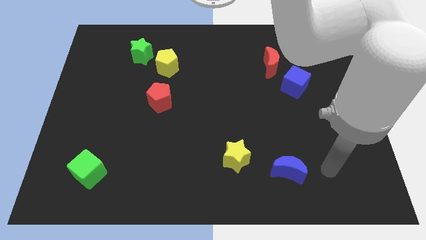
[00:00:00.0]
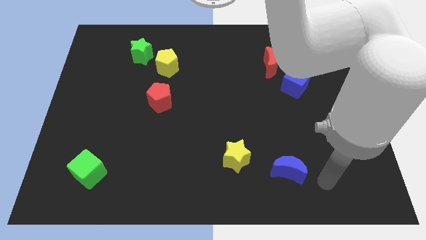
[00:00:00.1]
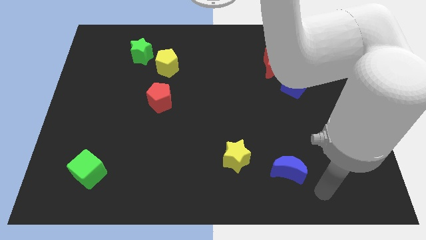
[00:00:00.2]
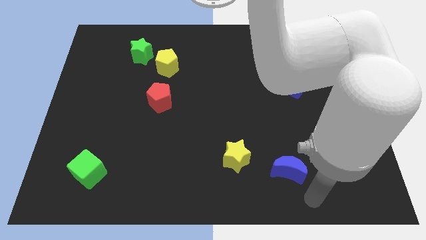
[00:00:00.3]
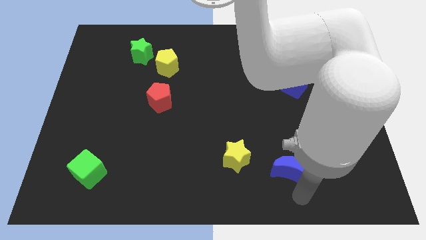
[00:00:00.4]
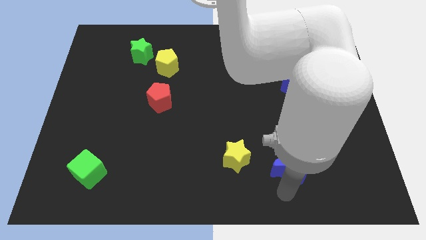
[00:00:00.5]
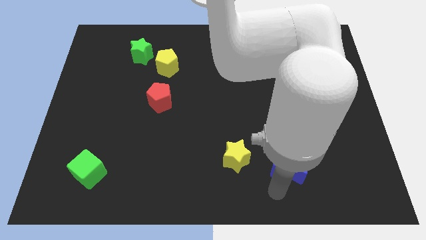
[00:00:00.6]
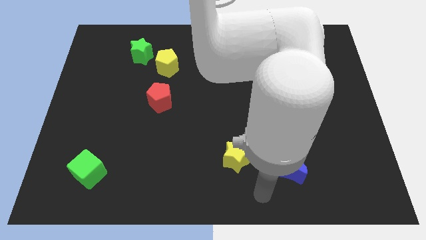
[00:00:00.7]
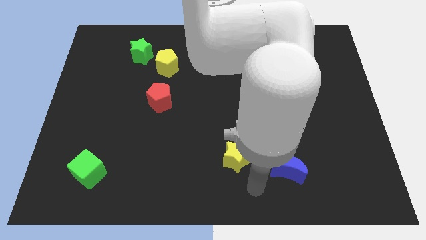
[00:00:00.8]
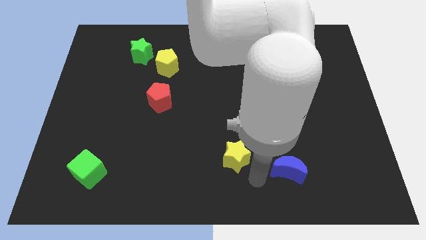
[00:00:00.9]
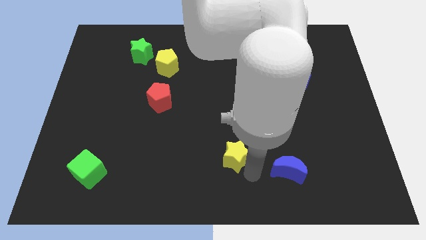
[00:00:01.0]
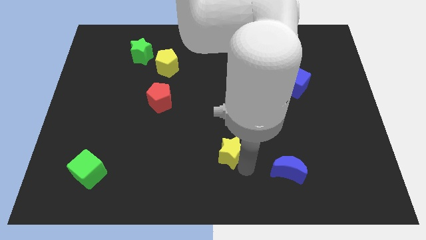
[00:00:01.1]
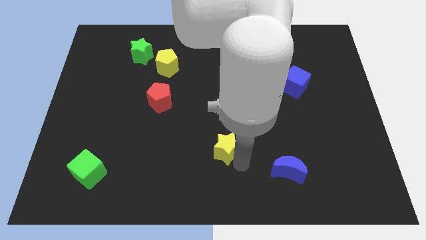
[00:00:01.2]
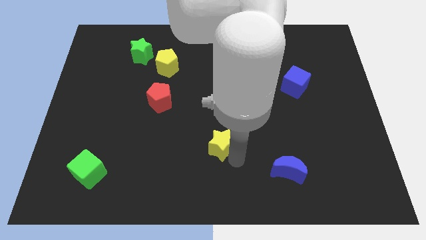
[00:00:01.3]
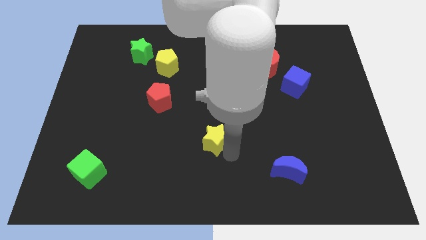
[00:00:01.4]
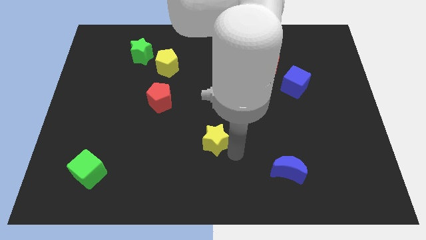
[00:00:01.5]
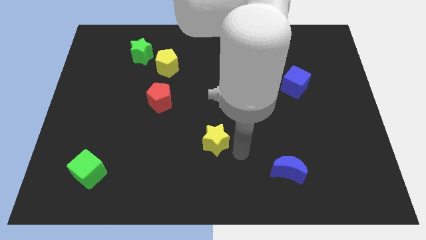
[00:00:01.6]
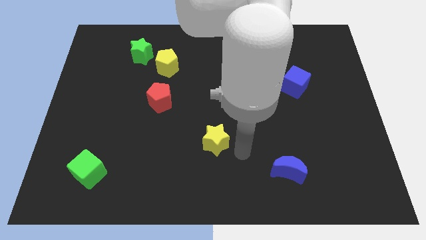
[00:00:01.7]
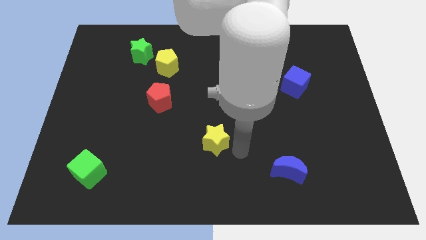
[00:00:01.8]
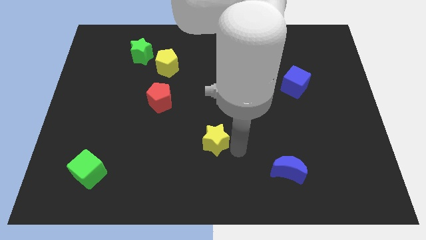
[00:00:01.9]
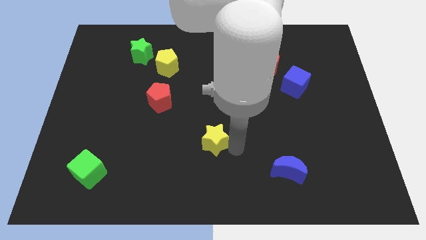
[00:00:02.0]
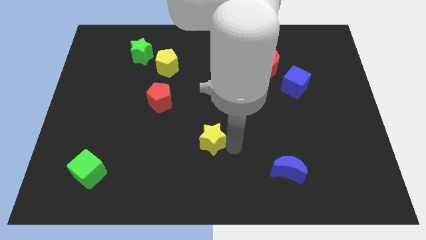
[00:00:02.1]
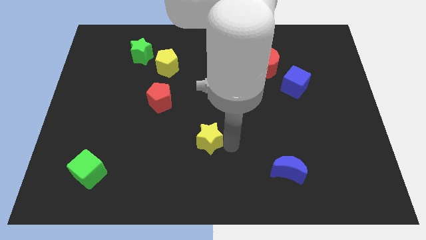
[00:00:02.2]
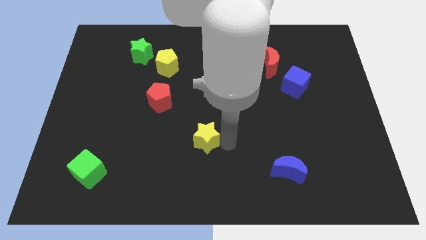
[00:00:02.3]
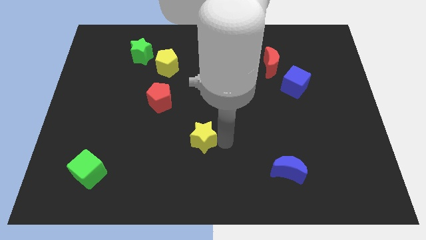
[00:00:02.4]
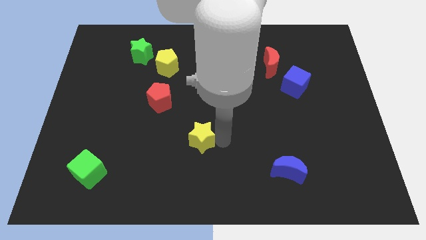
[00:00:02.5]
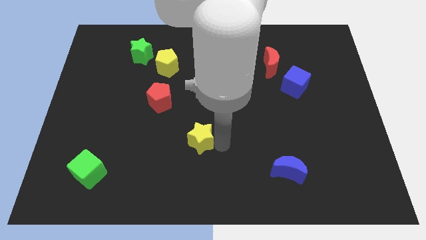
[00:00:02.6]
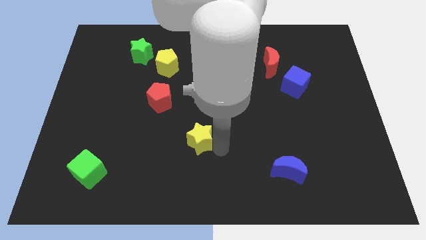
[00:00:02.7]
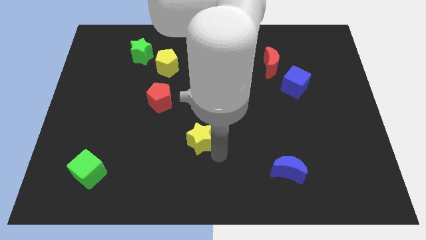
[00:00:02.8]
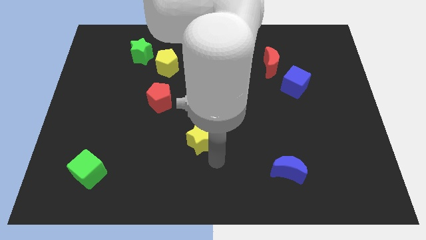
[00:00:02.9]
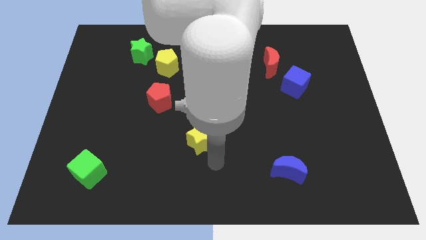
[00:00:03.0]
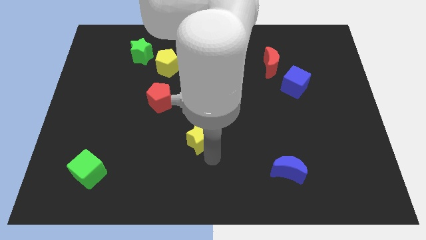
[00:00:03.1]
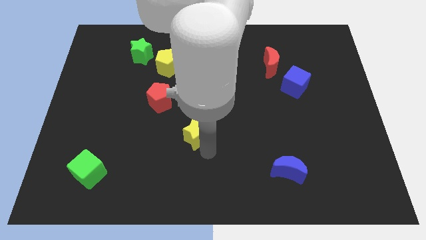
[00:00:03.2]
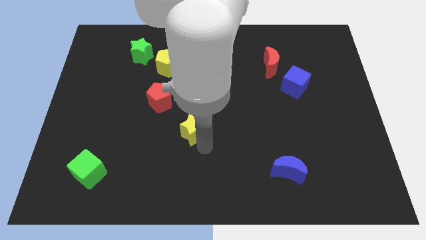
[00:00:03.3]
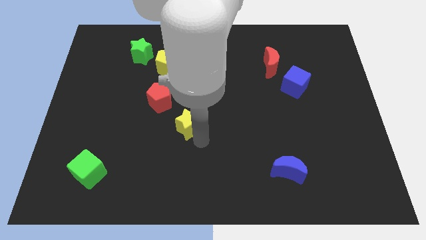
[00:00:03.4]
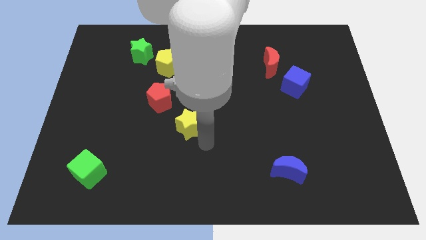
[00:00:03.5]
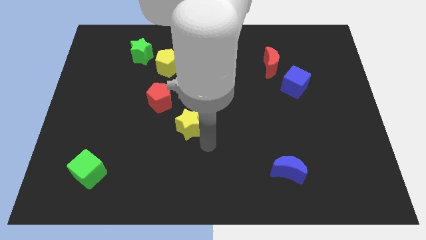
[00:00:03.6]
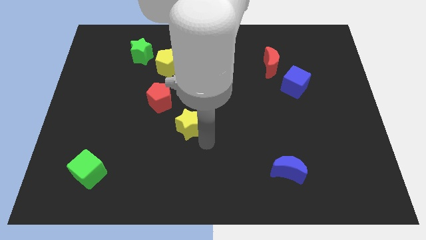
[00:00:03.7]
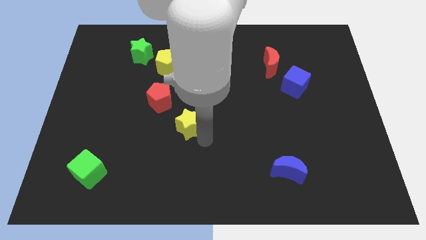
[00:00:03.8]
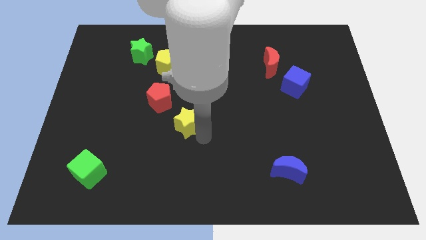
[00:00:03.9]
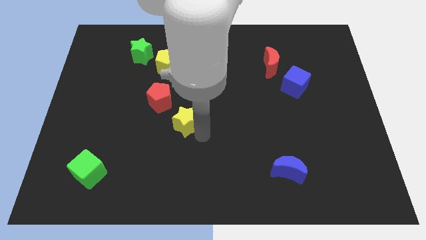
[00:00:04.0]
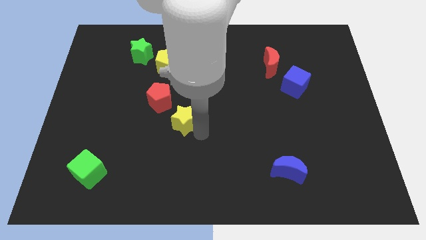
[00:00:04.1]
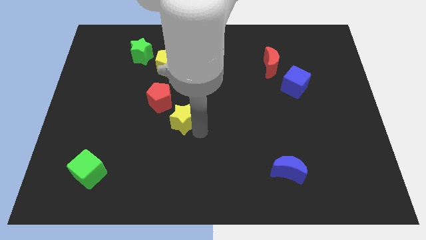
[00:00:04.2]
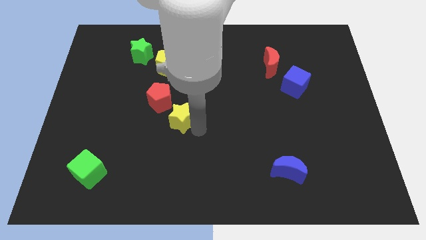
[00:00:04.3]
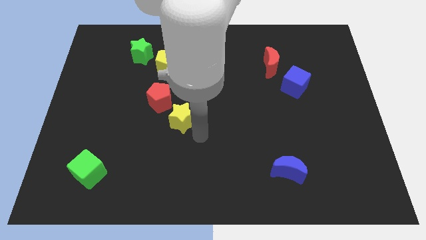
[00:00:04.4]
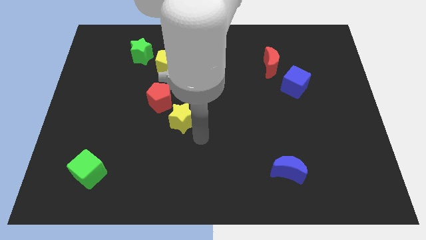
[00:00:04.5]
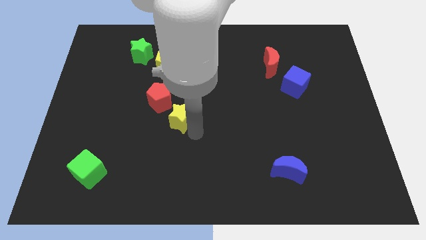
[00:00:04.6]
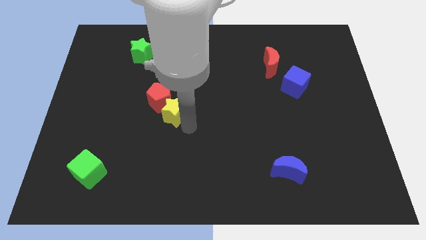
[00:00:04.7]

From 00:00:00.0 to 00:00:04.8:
move the yellow star to the red pentagon

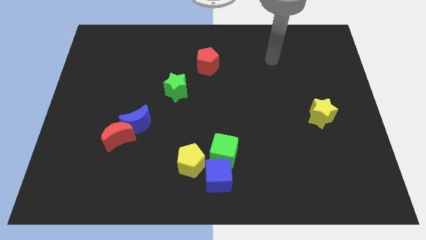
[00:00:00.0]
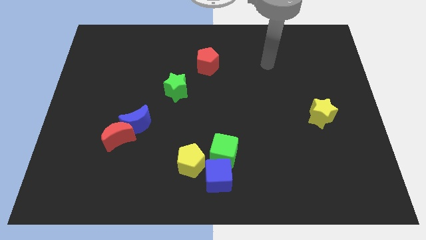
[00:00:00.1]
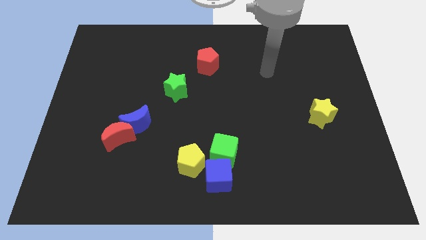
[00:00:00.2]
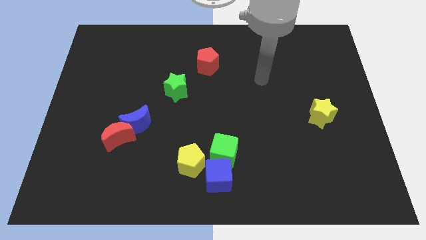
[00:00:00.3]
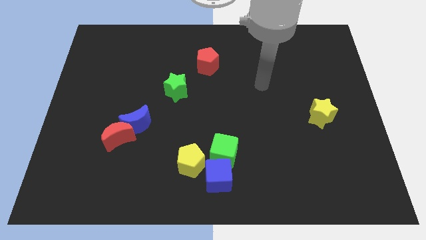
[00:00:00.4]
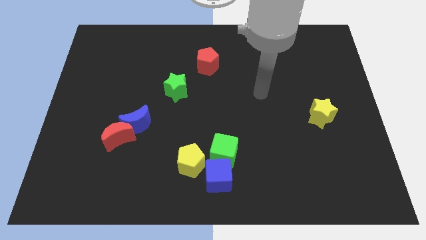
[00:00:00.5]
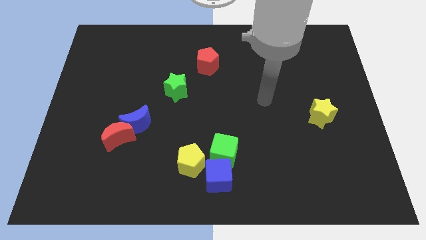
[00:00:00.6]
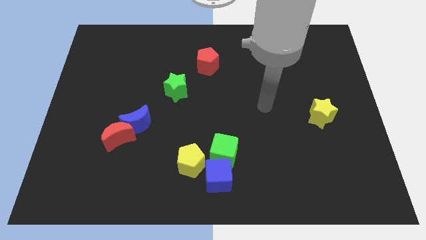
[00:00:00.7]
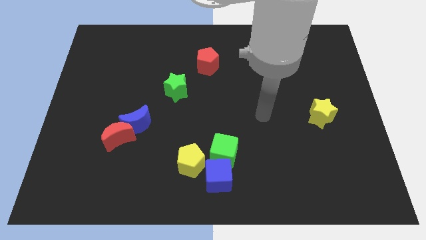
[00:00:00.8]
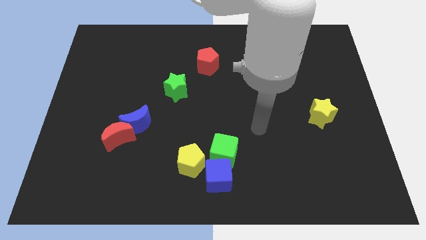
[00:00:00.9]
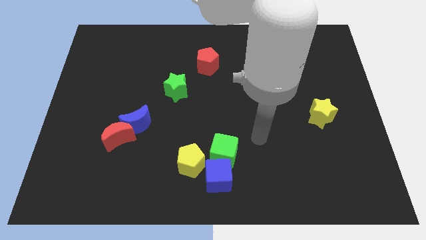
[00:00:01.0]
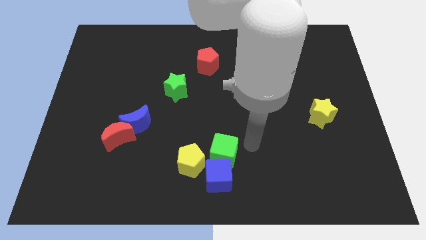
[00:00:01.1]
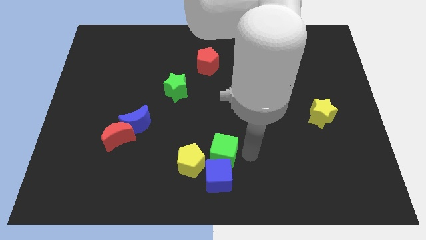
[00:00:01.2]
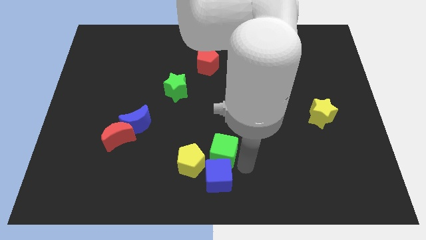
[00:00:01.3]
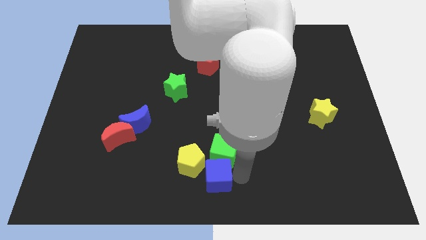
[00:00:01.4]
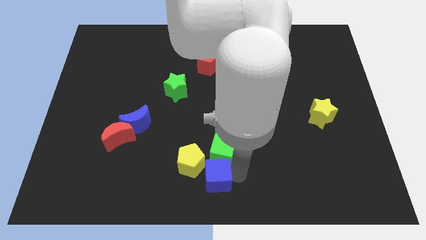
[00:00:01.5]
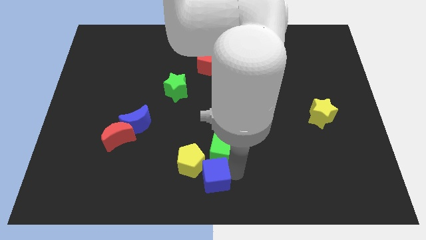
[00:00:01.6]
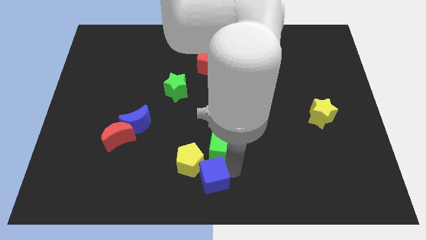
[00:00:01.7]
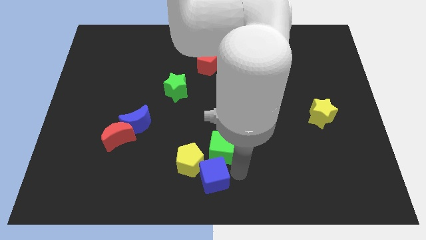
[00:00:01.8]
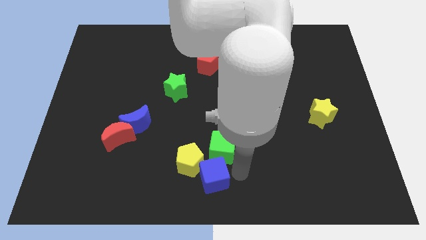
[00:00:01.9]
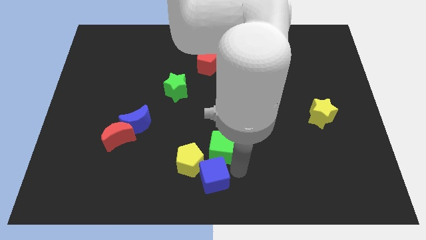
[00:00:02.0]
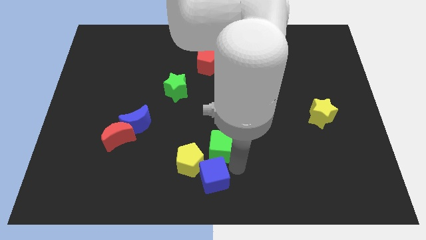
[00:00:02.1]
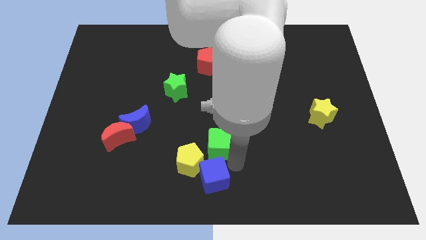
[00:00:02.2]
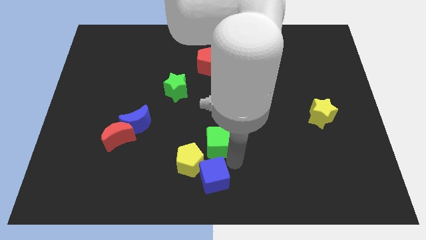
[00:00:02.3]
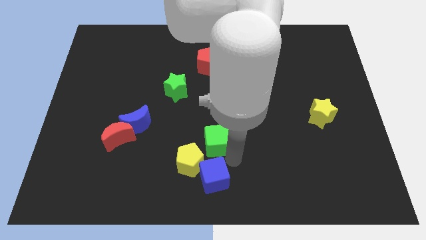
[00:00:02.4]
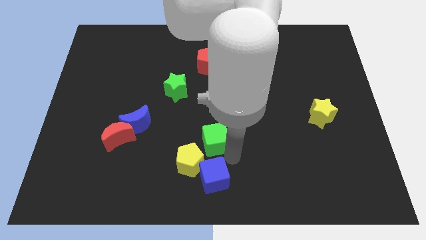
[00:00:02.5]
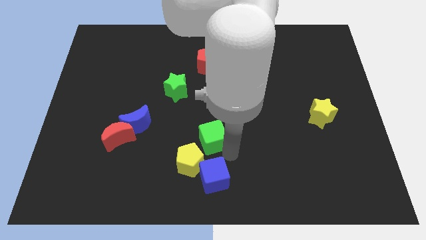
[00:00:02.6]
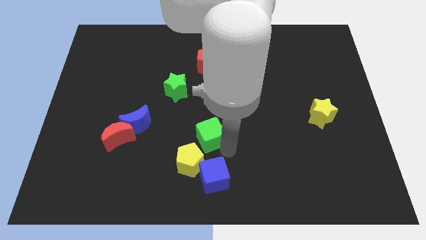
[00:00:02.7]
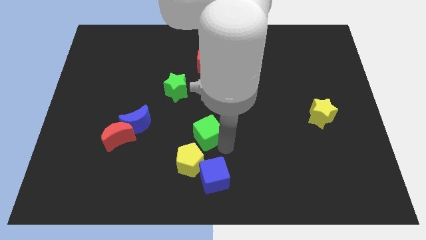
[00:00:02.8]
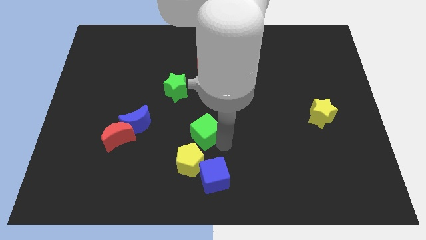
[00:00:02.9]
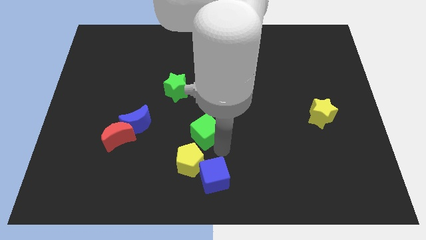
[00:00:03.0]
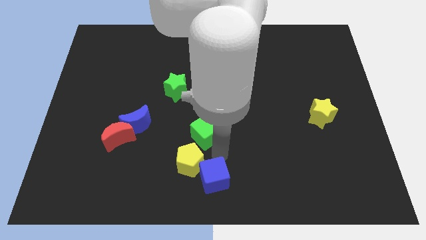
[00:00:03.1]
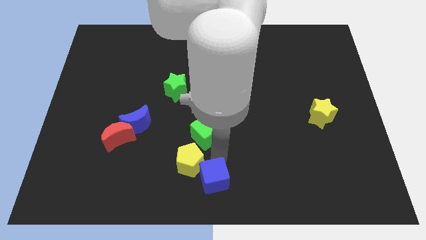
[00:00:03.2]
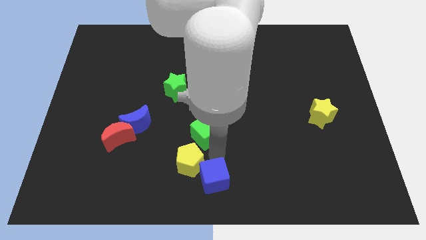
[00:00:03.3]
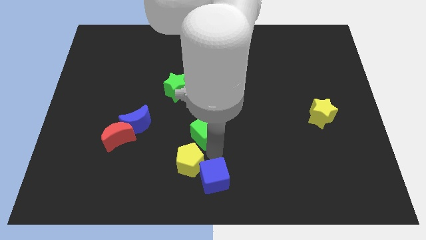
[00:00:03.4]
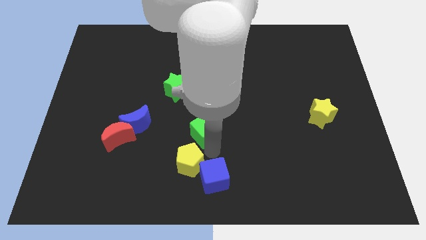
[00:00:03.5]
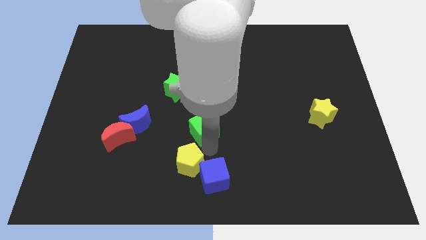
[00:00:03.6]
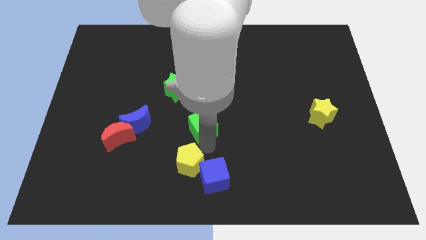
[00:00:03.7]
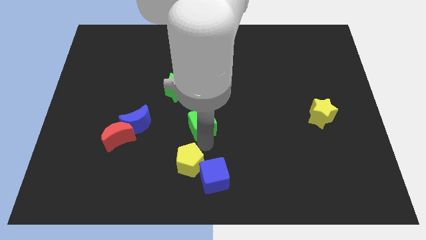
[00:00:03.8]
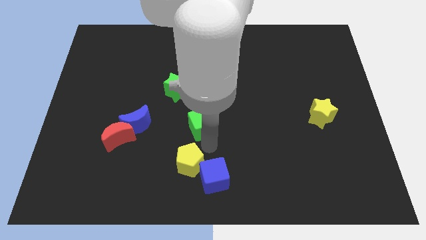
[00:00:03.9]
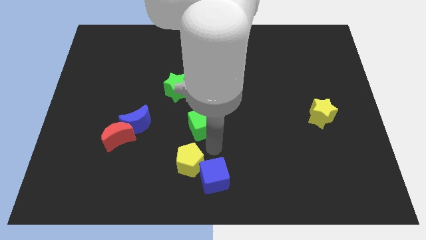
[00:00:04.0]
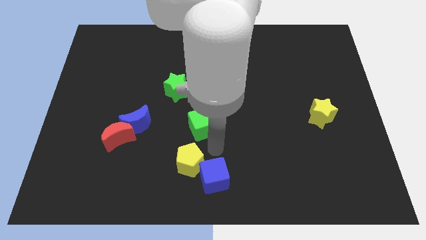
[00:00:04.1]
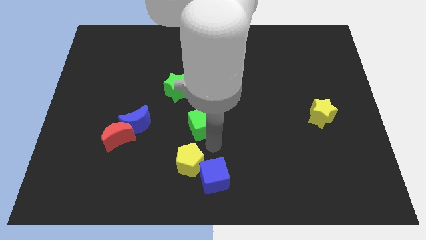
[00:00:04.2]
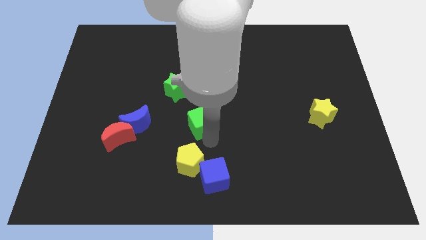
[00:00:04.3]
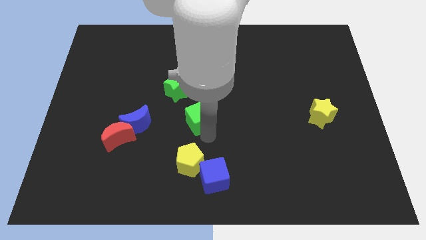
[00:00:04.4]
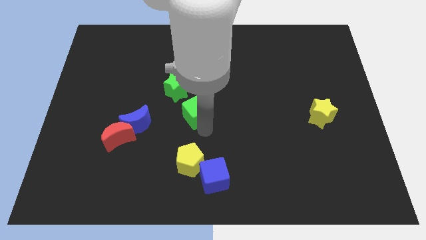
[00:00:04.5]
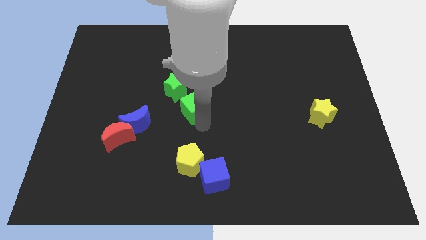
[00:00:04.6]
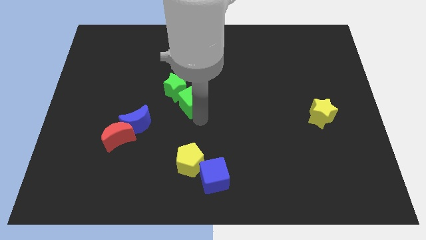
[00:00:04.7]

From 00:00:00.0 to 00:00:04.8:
push the green cube to the green star
